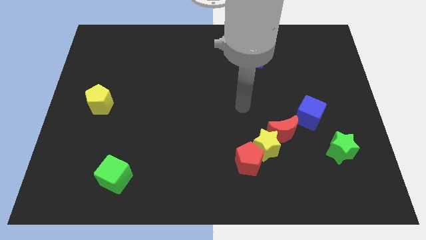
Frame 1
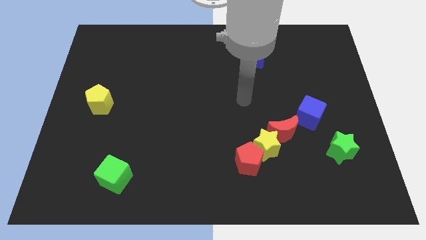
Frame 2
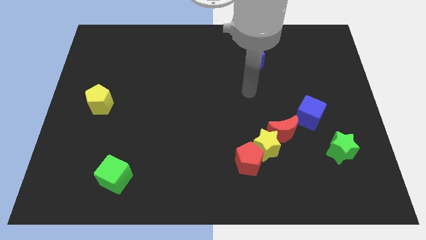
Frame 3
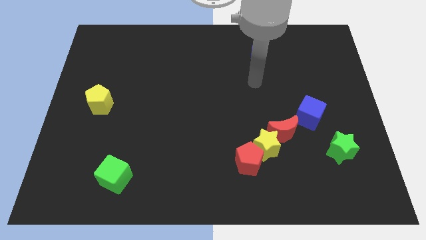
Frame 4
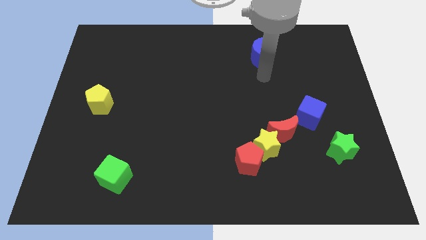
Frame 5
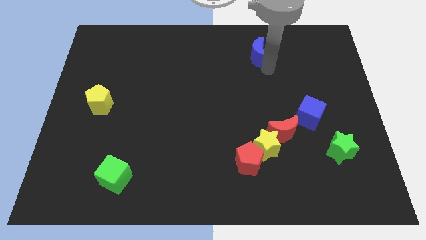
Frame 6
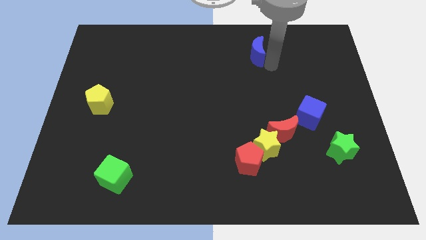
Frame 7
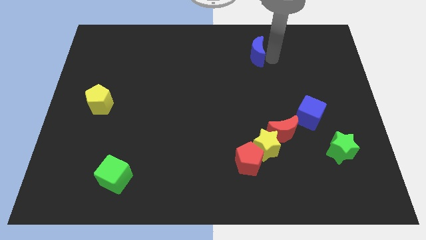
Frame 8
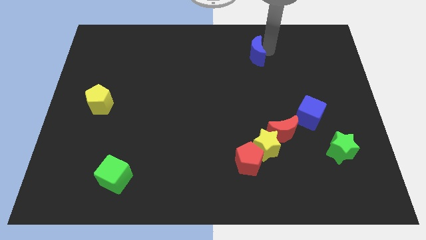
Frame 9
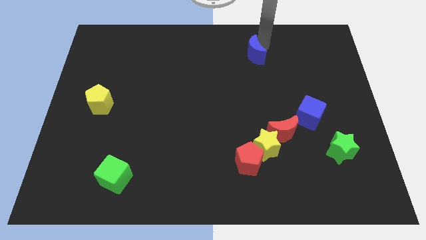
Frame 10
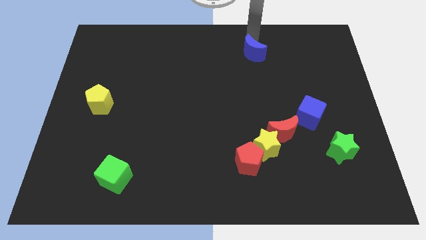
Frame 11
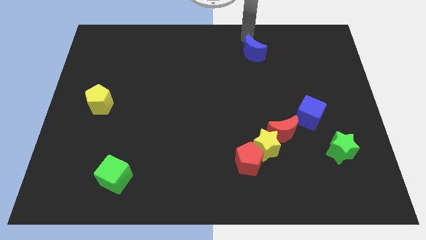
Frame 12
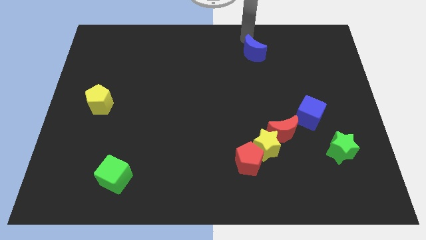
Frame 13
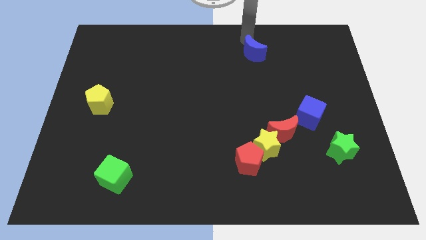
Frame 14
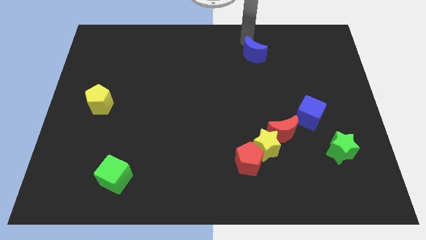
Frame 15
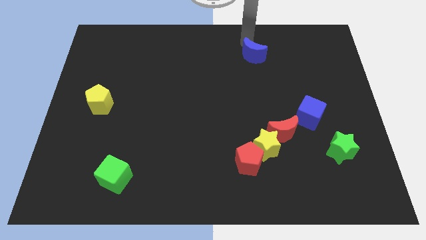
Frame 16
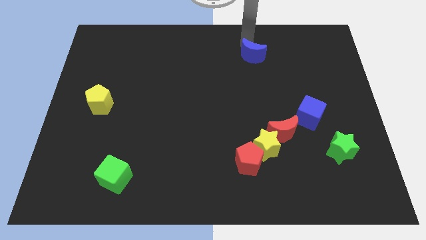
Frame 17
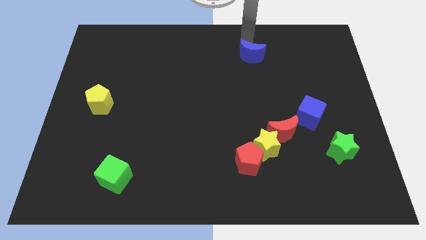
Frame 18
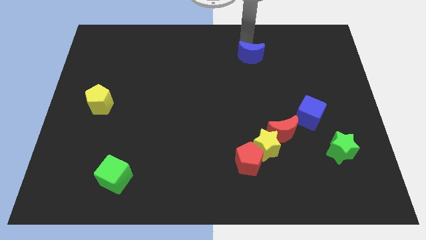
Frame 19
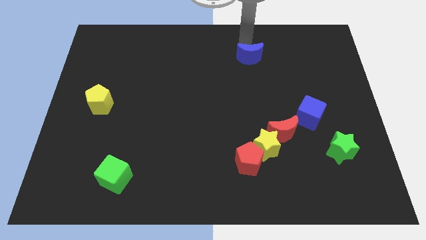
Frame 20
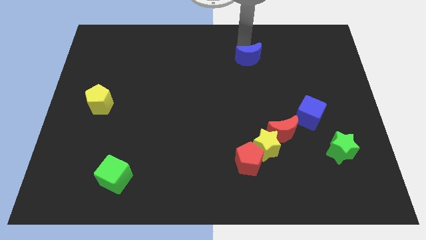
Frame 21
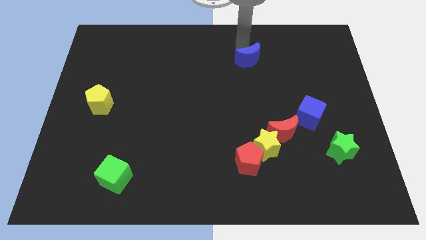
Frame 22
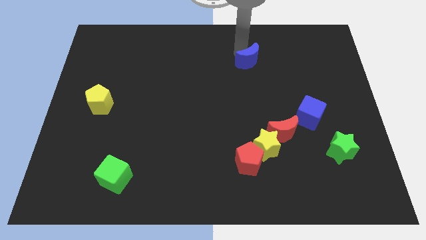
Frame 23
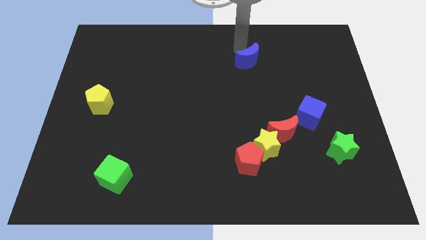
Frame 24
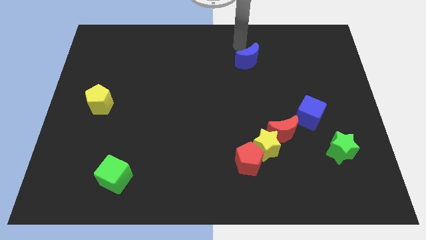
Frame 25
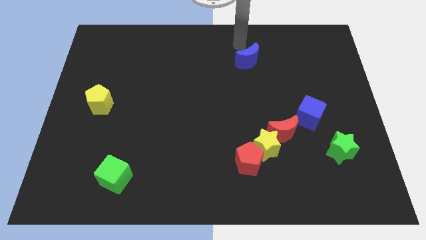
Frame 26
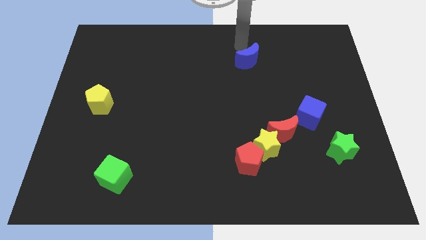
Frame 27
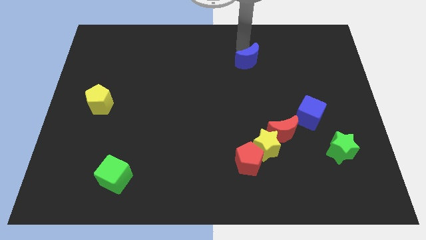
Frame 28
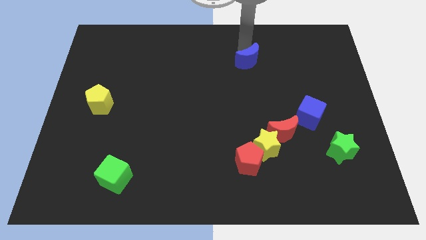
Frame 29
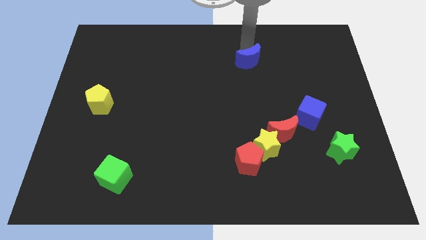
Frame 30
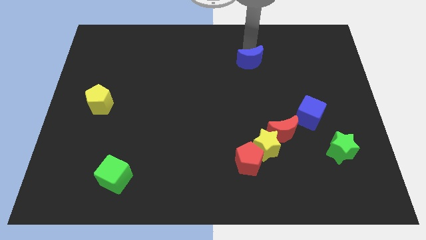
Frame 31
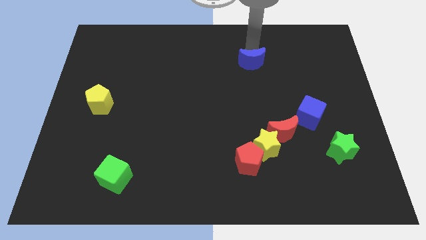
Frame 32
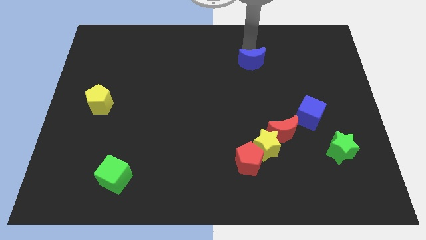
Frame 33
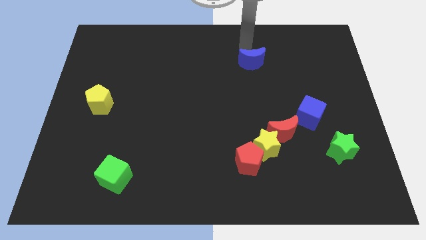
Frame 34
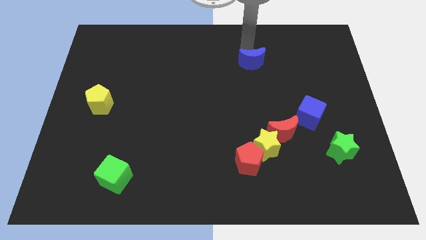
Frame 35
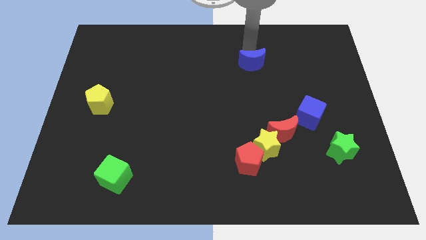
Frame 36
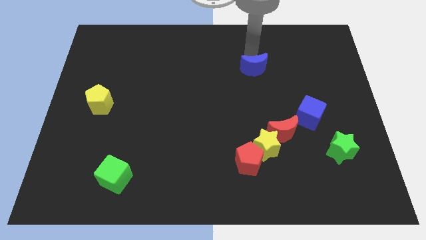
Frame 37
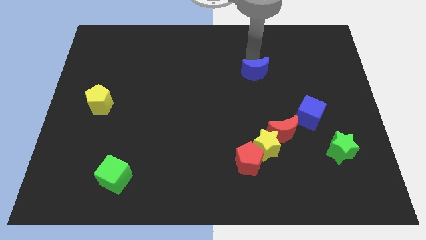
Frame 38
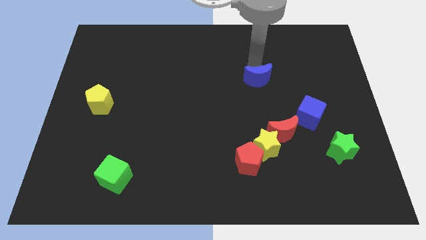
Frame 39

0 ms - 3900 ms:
push the blue moon a little down

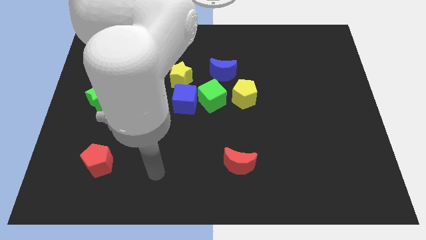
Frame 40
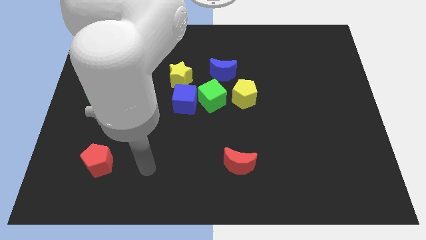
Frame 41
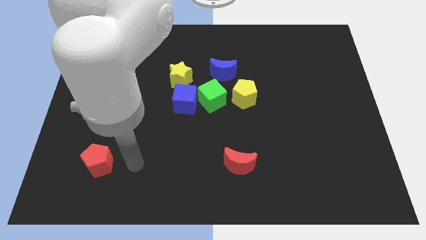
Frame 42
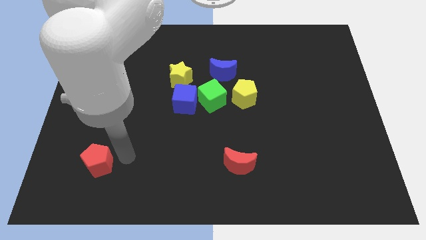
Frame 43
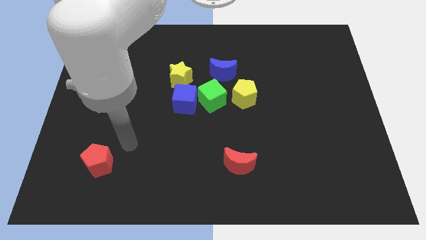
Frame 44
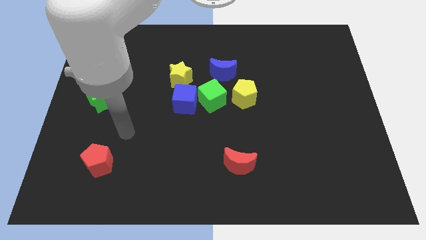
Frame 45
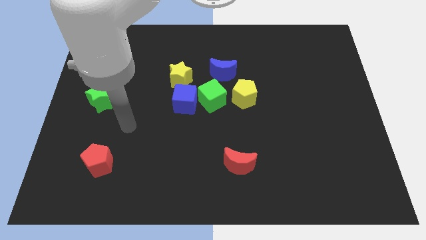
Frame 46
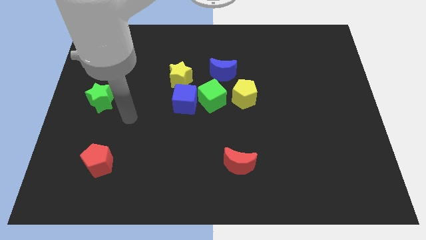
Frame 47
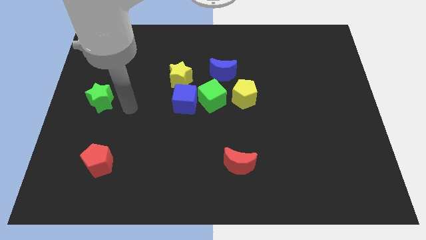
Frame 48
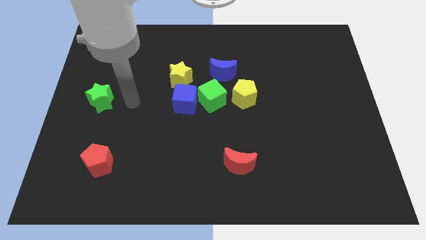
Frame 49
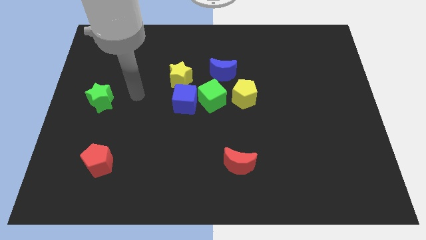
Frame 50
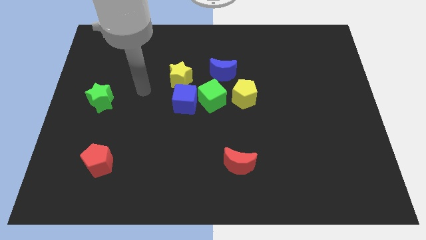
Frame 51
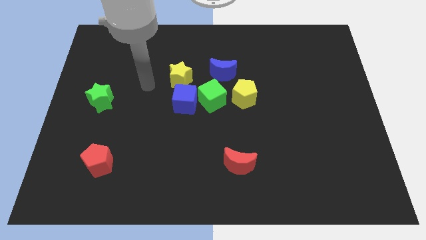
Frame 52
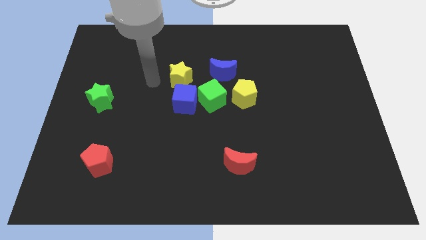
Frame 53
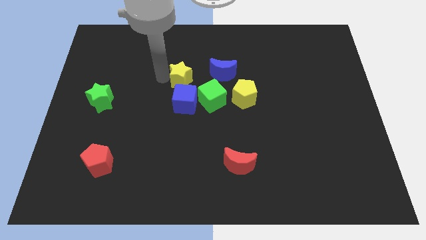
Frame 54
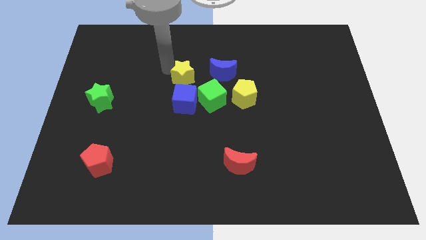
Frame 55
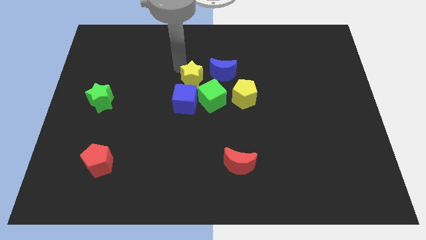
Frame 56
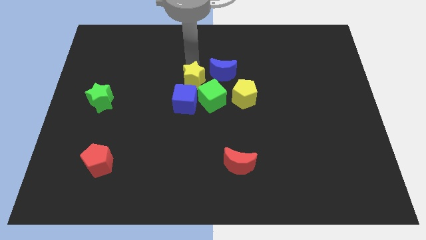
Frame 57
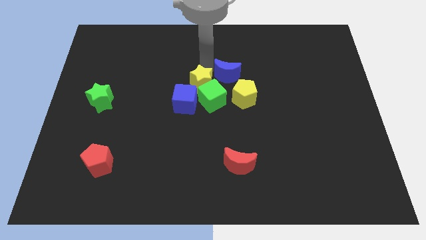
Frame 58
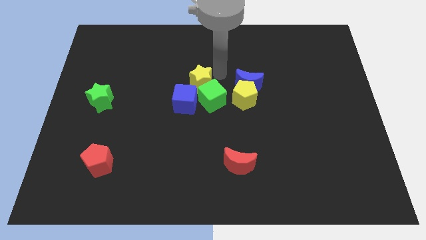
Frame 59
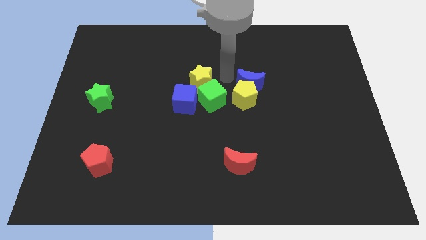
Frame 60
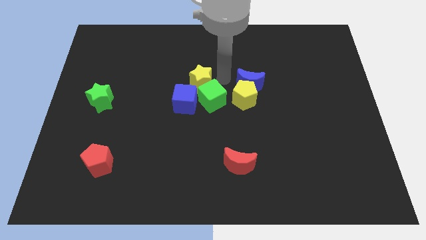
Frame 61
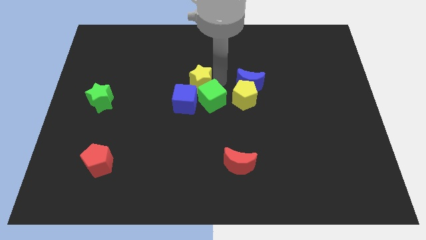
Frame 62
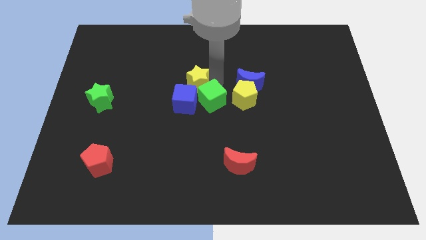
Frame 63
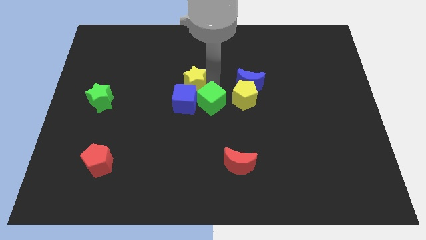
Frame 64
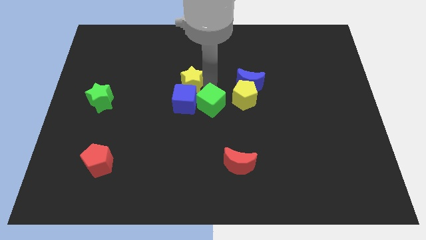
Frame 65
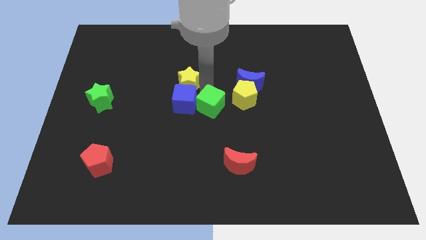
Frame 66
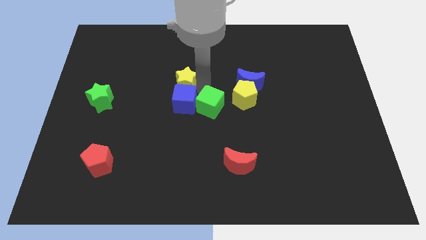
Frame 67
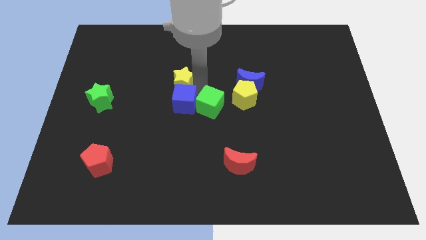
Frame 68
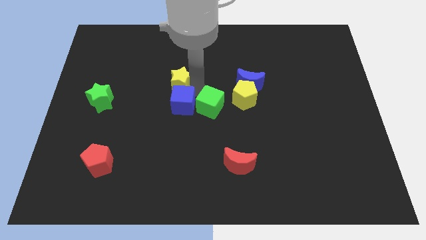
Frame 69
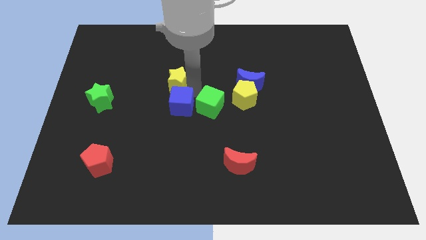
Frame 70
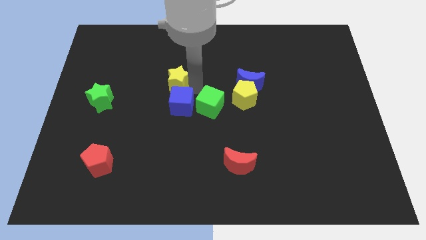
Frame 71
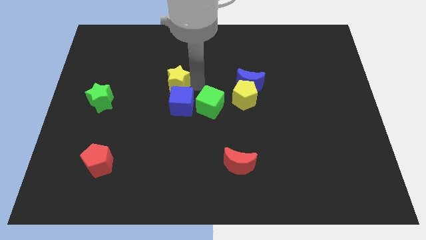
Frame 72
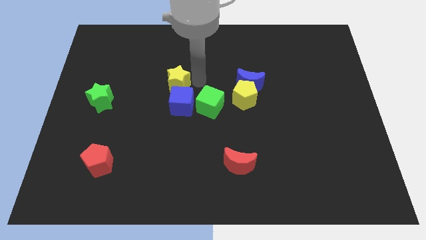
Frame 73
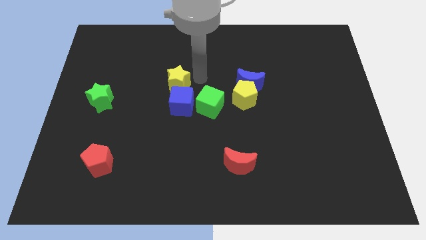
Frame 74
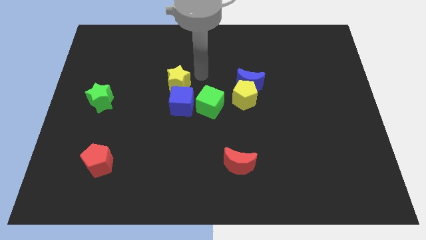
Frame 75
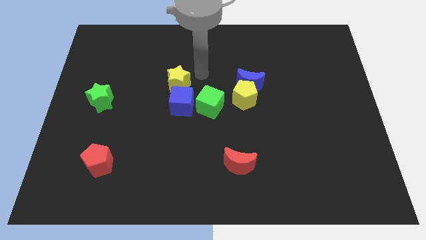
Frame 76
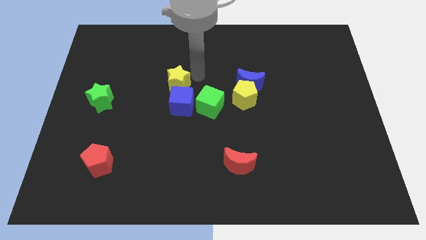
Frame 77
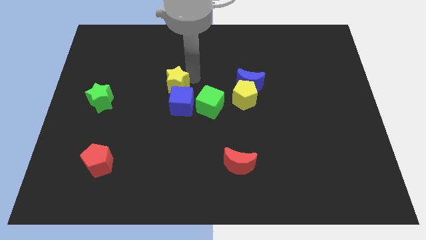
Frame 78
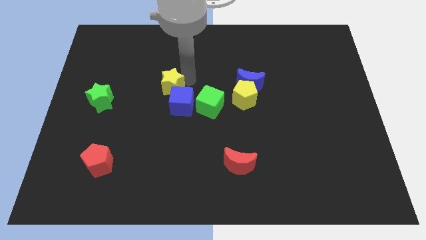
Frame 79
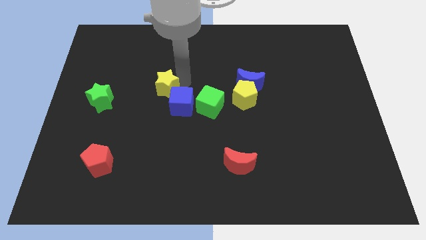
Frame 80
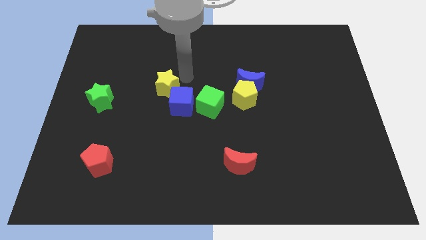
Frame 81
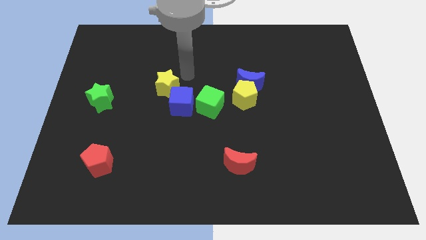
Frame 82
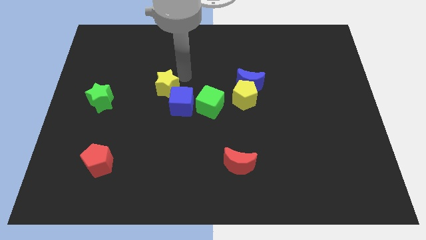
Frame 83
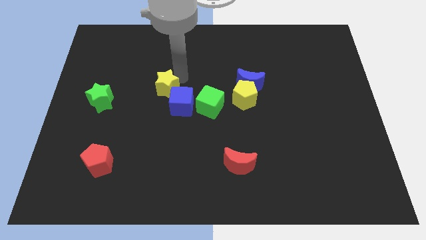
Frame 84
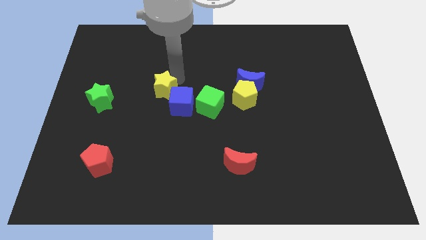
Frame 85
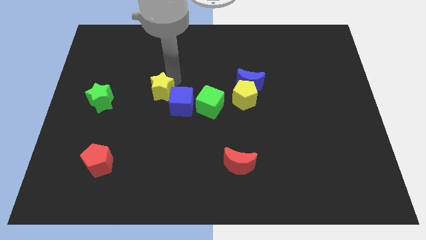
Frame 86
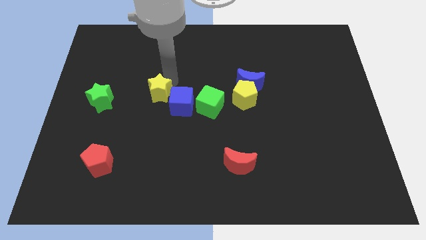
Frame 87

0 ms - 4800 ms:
move the yellow star downwards and to the left slightly
